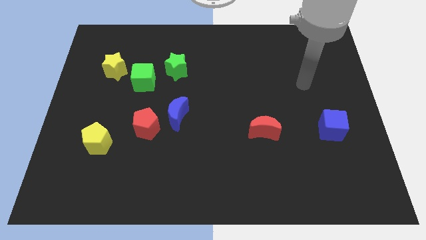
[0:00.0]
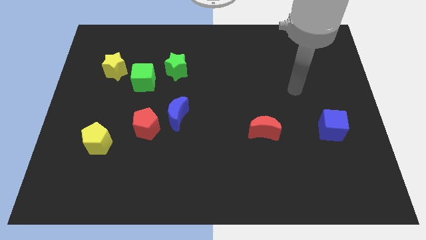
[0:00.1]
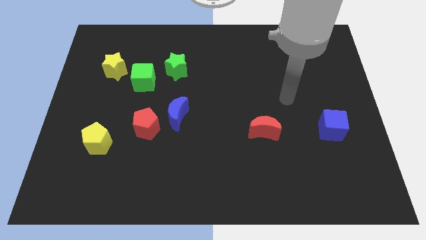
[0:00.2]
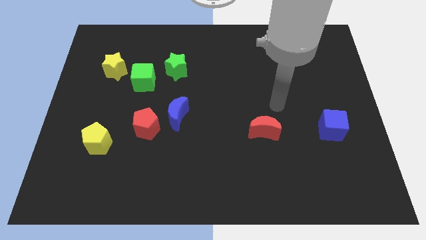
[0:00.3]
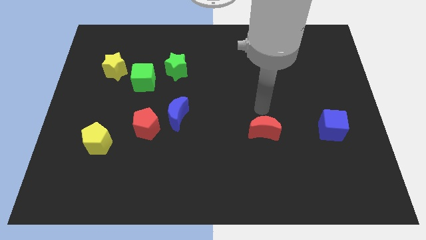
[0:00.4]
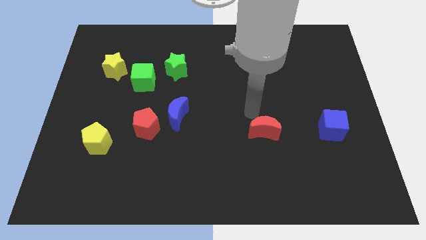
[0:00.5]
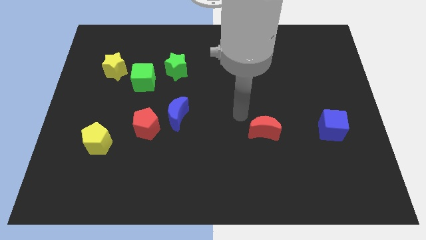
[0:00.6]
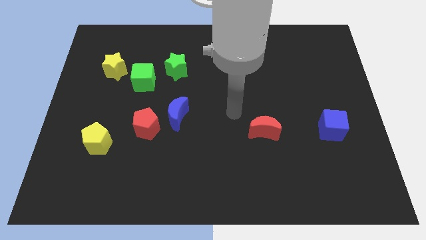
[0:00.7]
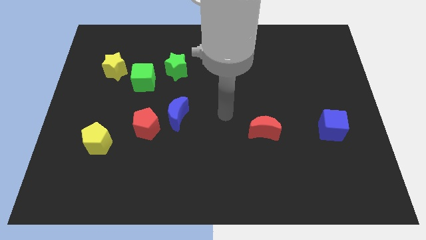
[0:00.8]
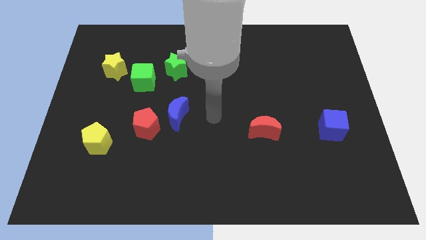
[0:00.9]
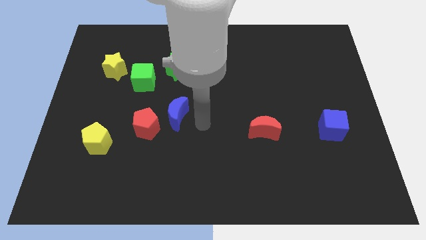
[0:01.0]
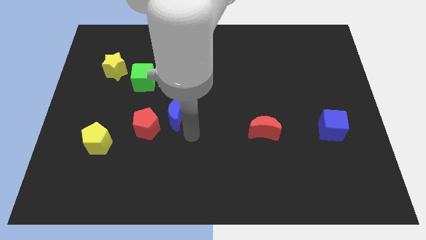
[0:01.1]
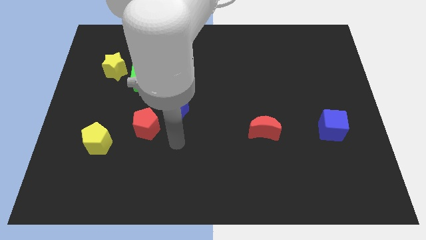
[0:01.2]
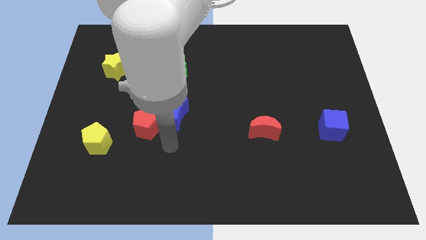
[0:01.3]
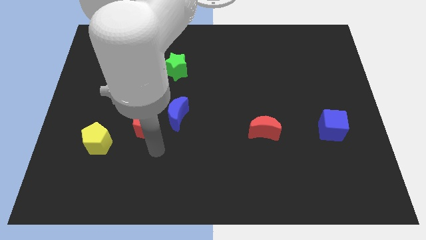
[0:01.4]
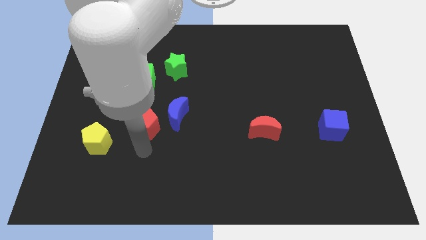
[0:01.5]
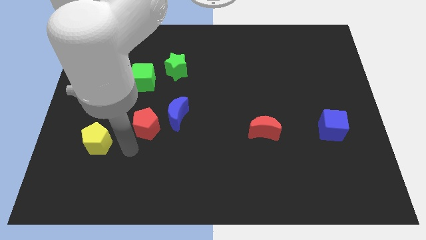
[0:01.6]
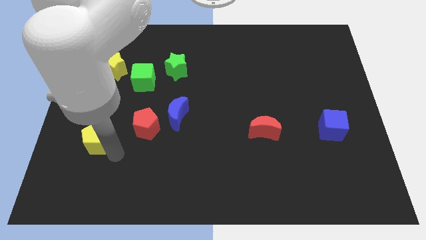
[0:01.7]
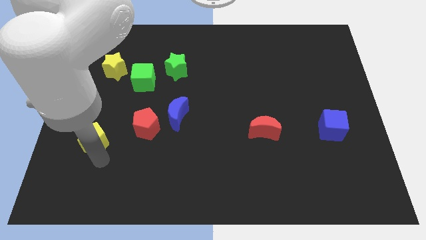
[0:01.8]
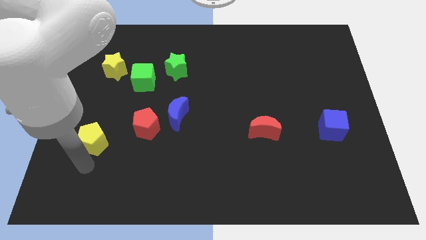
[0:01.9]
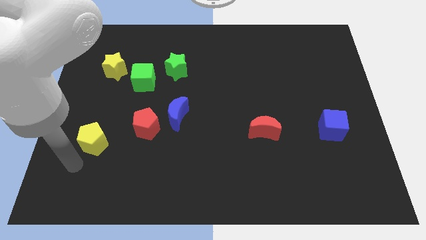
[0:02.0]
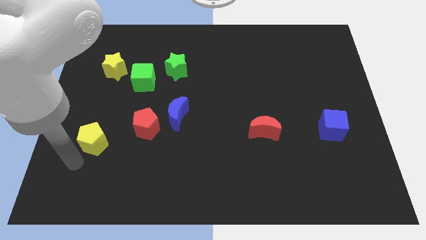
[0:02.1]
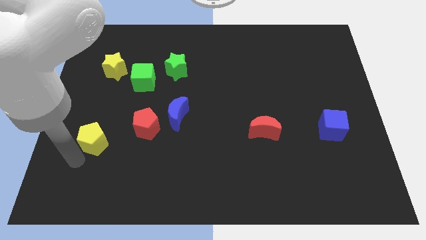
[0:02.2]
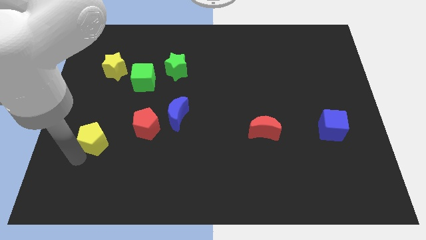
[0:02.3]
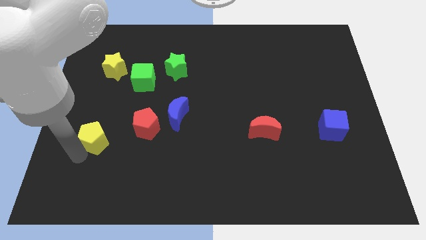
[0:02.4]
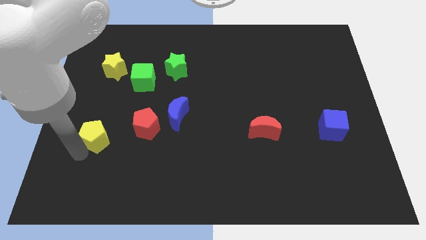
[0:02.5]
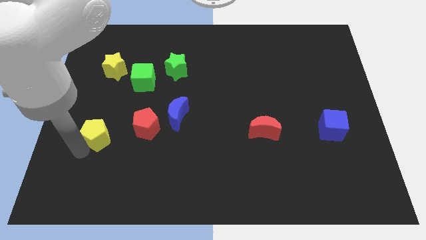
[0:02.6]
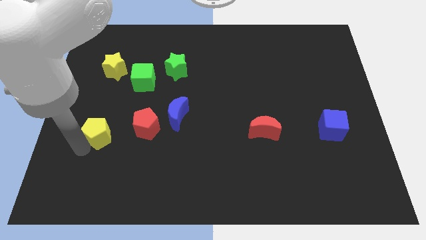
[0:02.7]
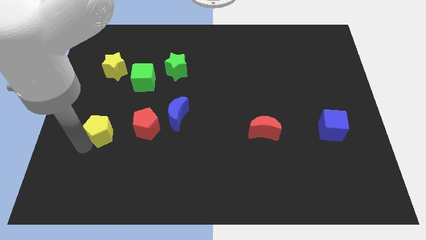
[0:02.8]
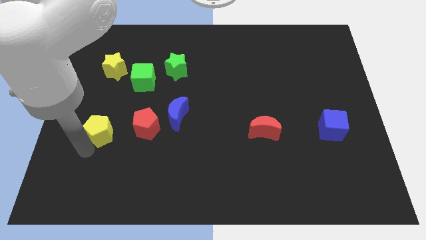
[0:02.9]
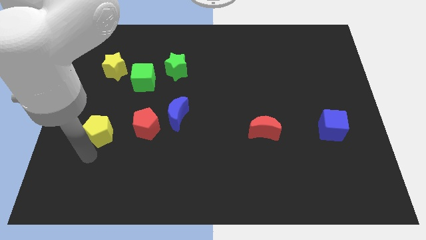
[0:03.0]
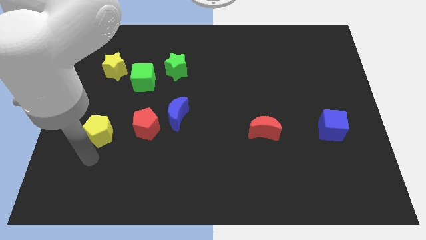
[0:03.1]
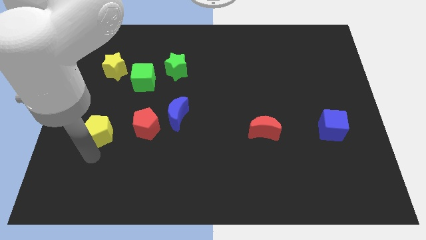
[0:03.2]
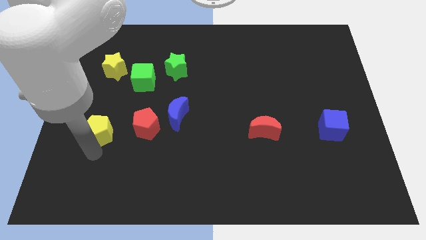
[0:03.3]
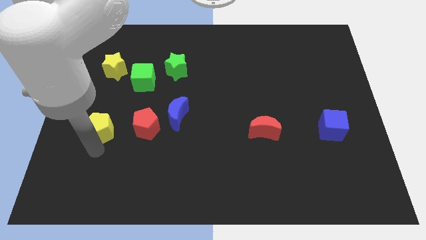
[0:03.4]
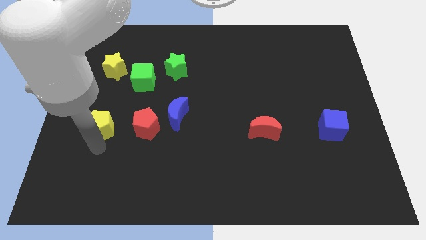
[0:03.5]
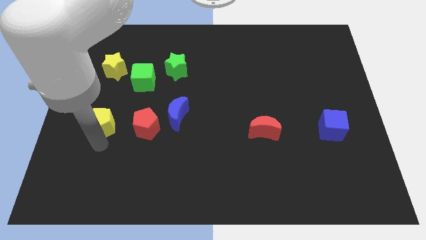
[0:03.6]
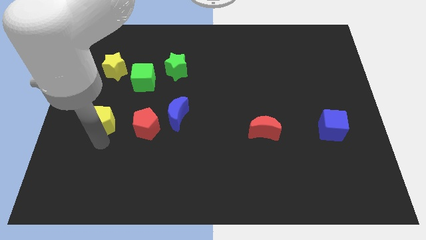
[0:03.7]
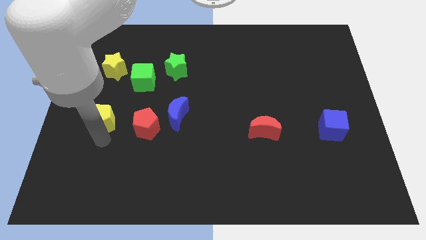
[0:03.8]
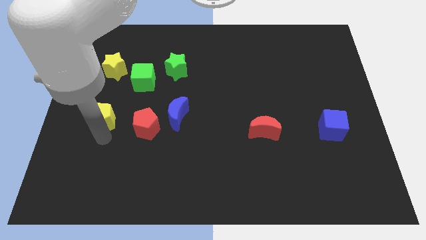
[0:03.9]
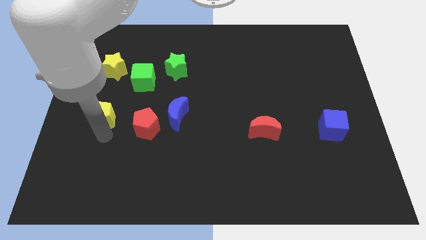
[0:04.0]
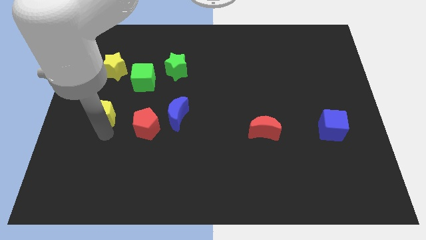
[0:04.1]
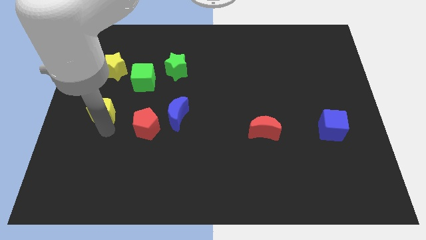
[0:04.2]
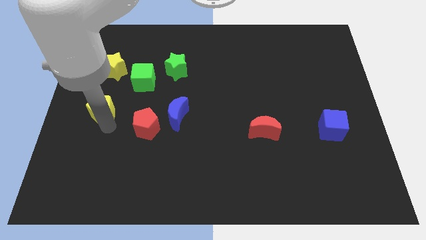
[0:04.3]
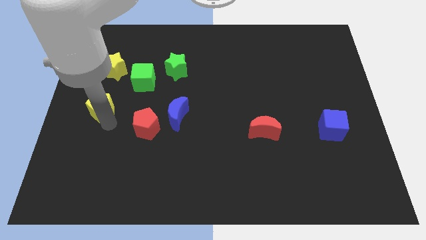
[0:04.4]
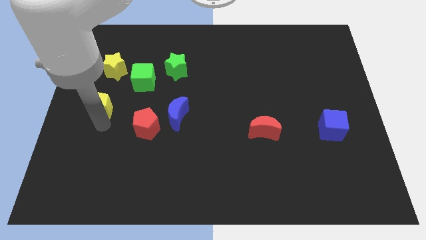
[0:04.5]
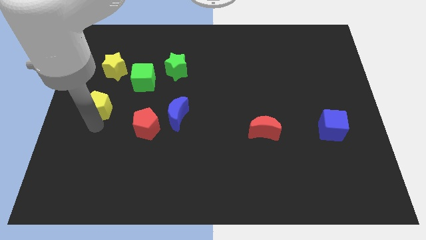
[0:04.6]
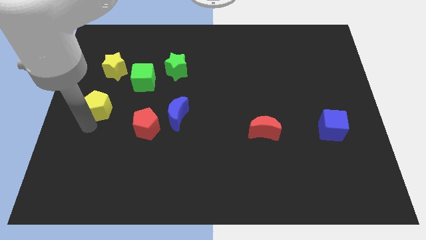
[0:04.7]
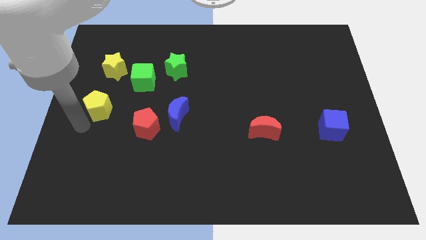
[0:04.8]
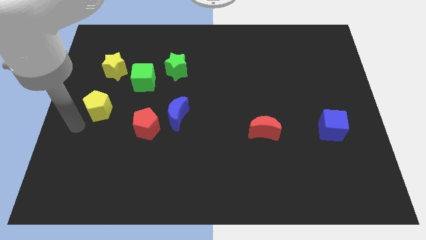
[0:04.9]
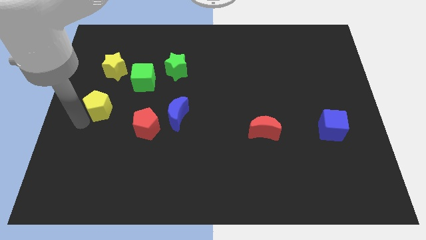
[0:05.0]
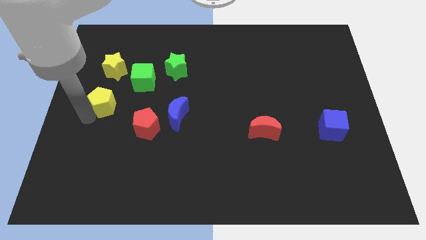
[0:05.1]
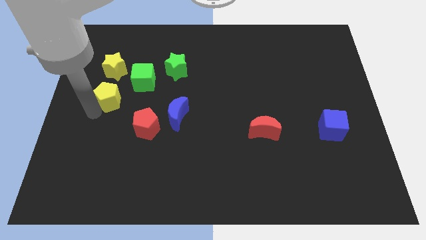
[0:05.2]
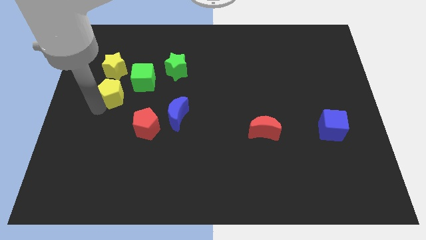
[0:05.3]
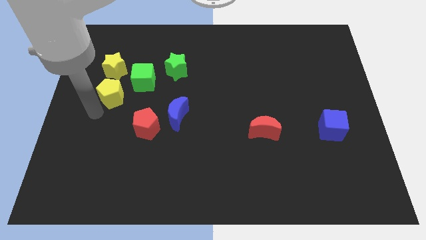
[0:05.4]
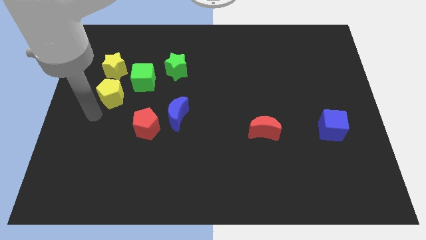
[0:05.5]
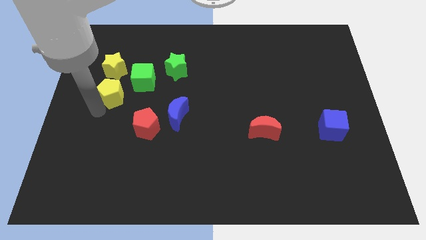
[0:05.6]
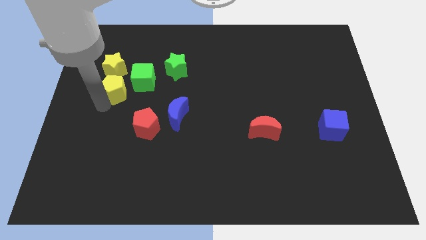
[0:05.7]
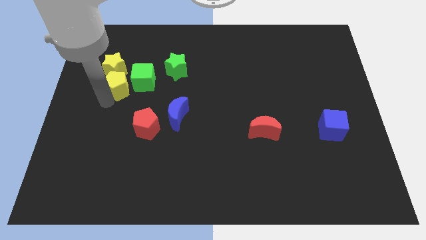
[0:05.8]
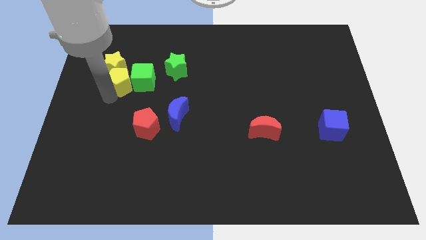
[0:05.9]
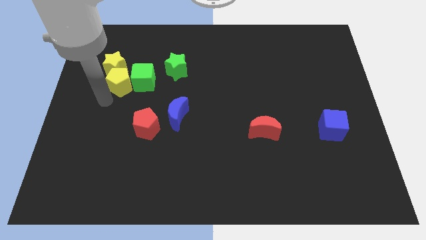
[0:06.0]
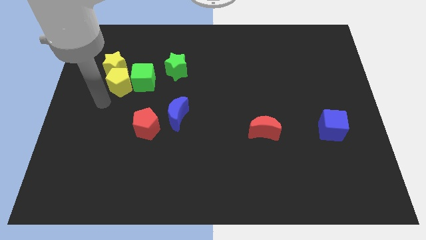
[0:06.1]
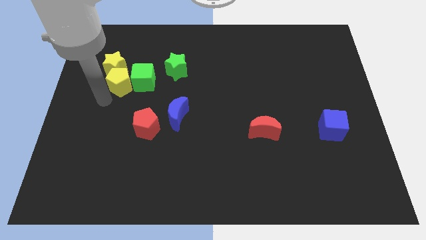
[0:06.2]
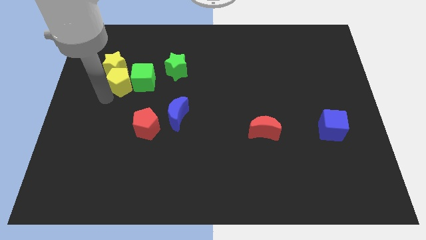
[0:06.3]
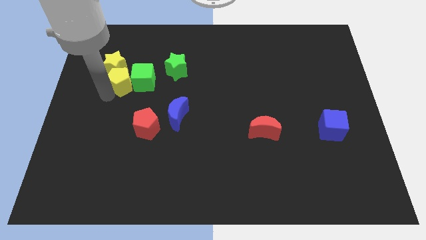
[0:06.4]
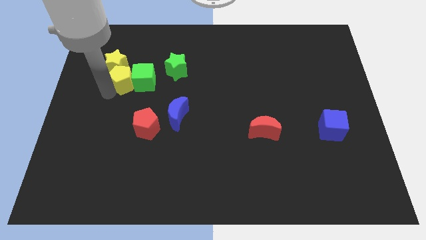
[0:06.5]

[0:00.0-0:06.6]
put the yellow pentagon to the left side of the green star

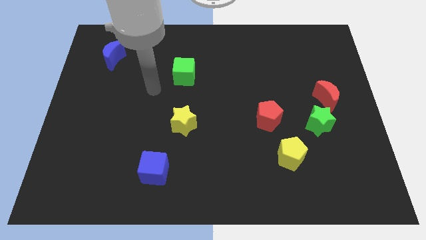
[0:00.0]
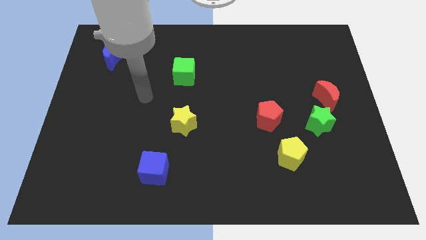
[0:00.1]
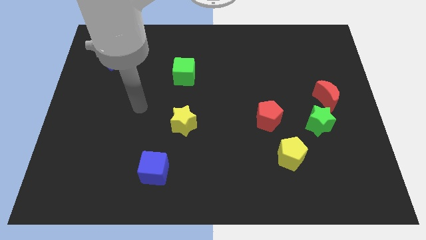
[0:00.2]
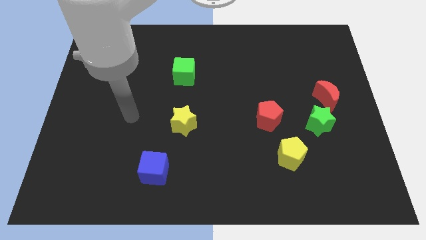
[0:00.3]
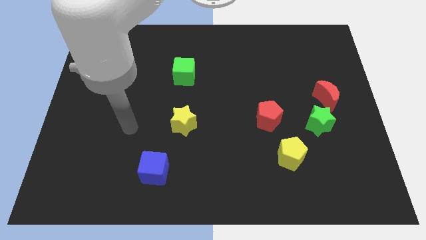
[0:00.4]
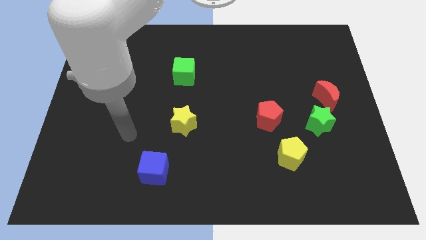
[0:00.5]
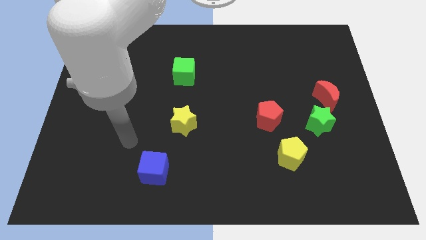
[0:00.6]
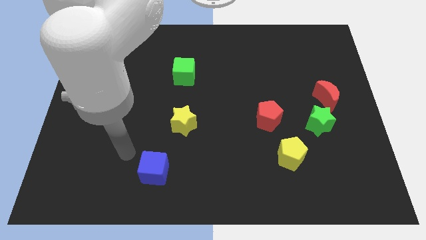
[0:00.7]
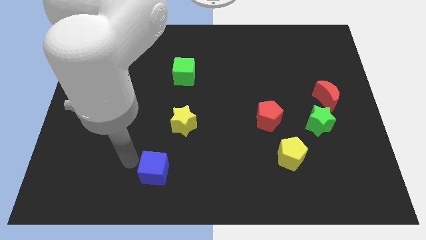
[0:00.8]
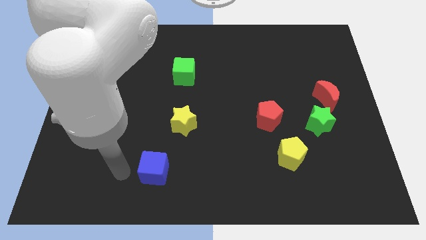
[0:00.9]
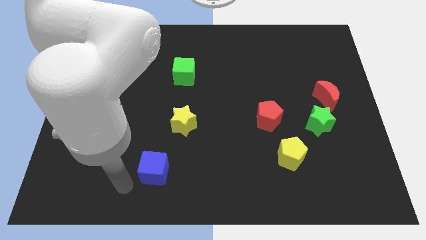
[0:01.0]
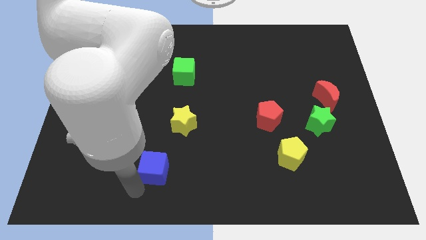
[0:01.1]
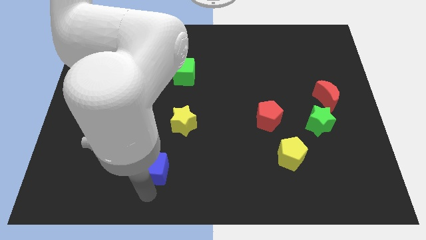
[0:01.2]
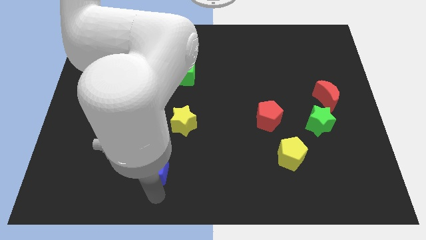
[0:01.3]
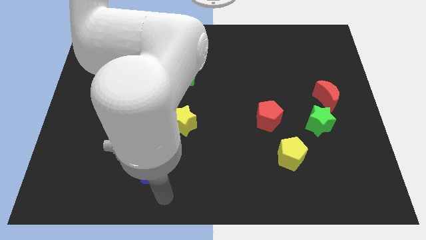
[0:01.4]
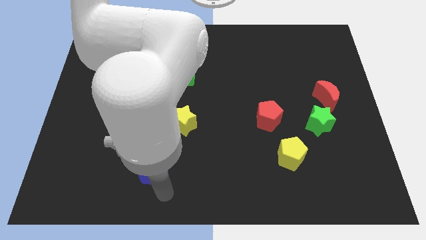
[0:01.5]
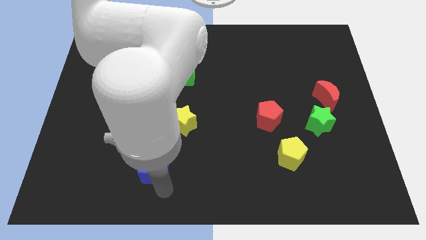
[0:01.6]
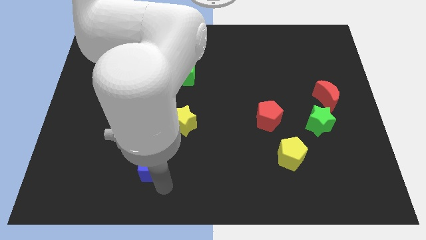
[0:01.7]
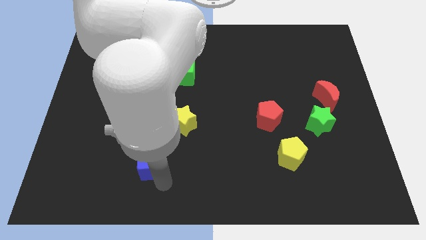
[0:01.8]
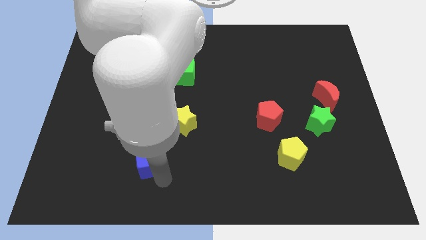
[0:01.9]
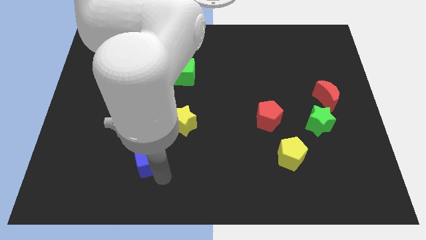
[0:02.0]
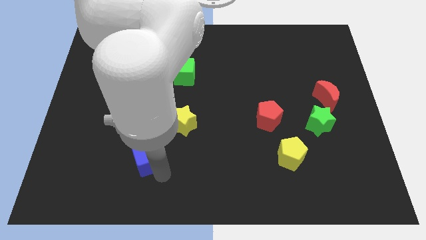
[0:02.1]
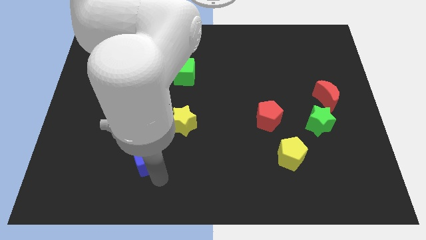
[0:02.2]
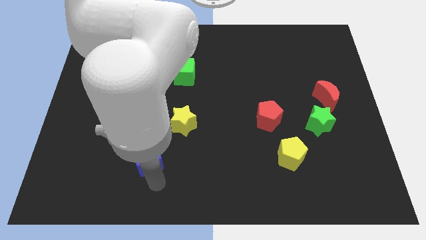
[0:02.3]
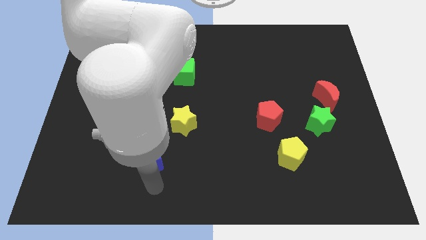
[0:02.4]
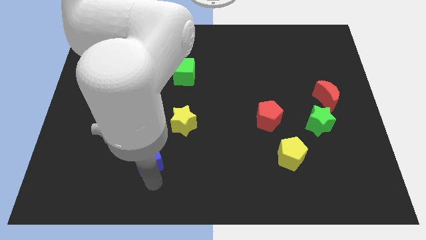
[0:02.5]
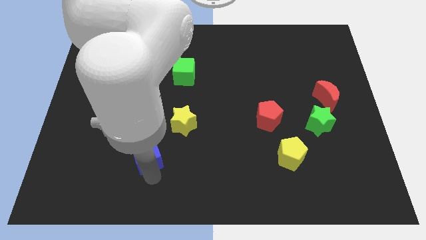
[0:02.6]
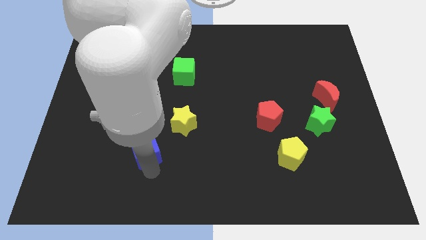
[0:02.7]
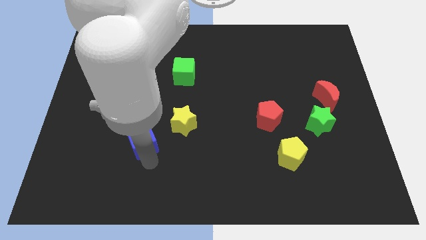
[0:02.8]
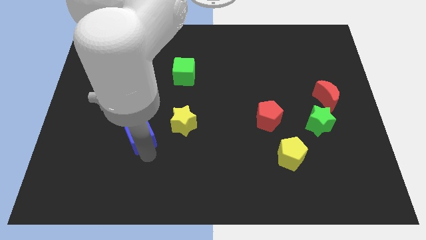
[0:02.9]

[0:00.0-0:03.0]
push the blue cube to the left of the yellow star
